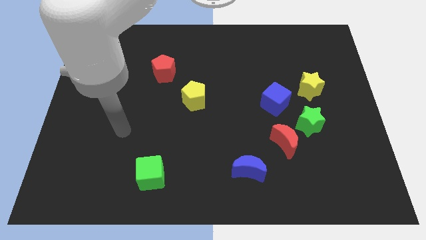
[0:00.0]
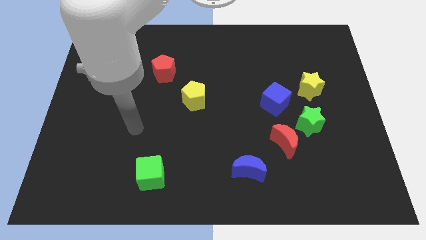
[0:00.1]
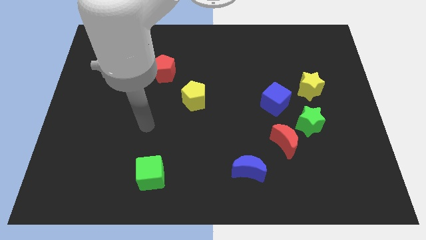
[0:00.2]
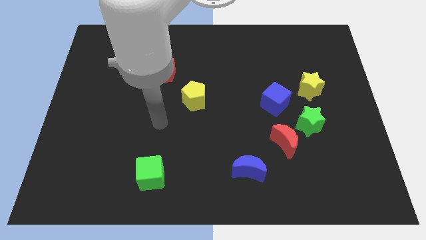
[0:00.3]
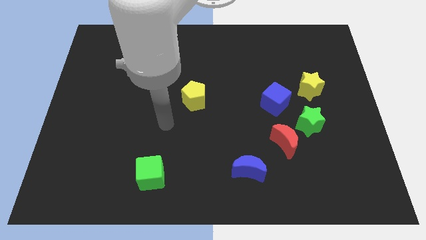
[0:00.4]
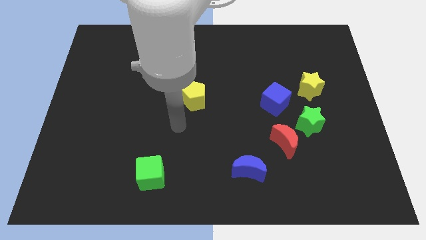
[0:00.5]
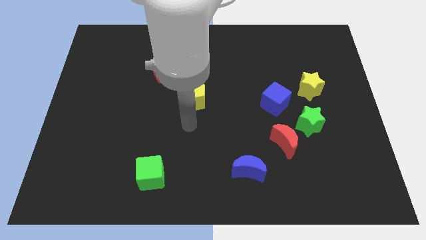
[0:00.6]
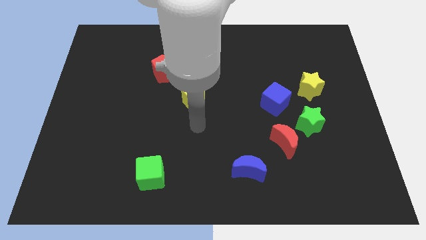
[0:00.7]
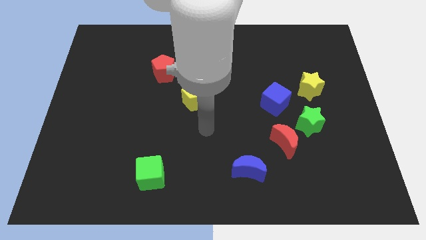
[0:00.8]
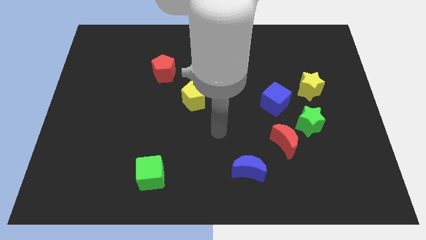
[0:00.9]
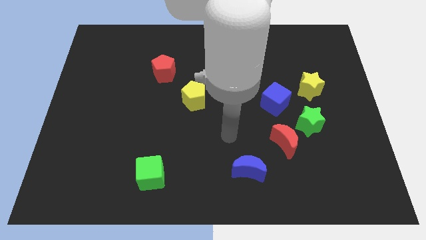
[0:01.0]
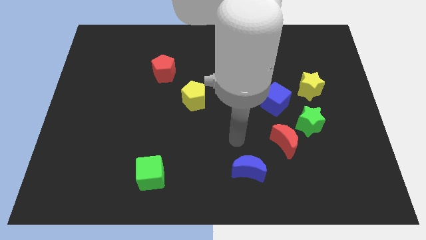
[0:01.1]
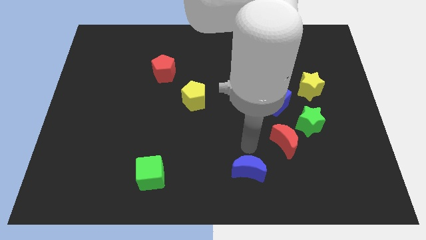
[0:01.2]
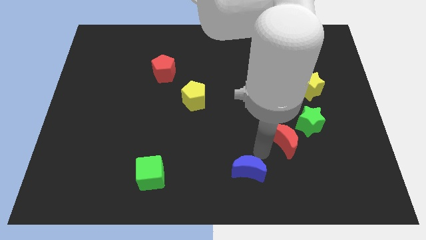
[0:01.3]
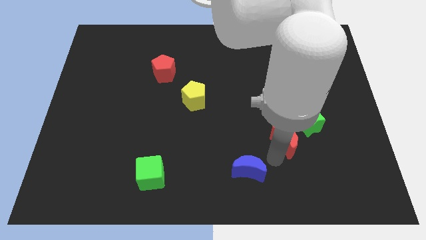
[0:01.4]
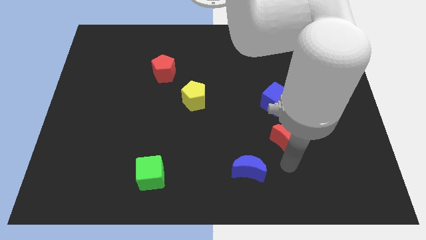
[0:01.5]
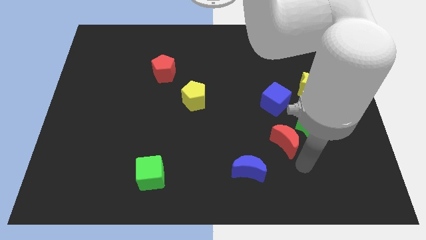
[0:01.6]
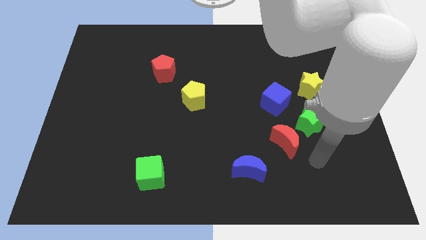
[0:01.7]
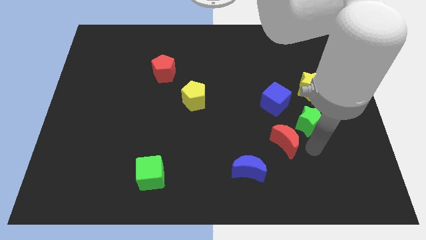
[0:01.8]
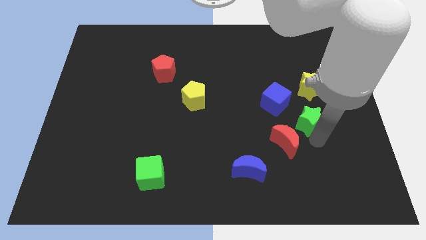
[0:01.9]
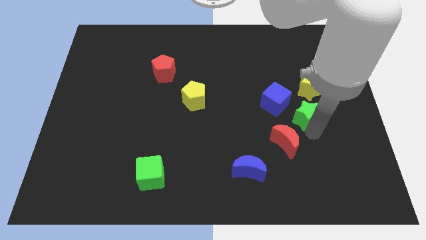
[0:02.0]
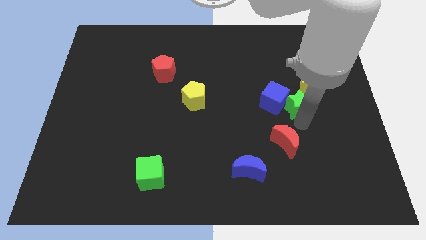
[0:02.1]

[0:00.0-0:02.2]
move the red moon away from the green star

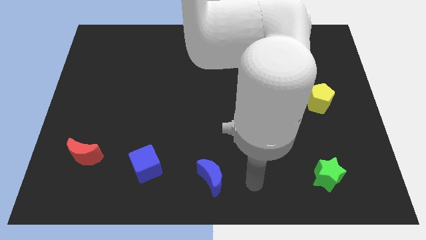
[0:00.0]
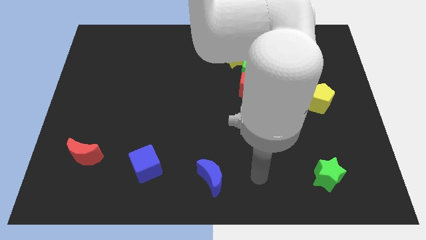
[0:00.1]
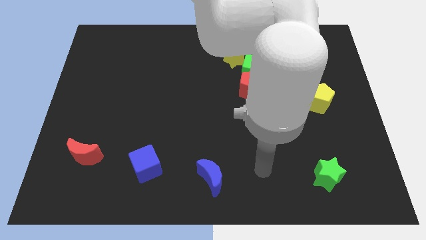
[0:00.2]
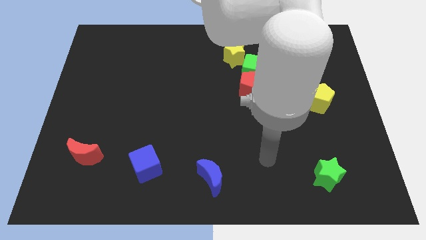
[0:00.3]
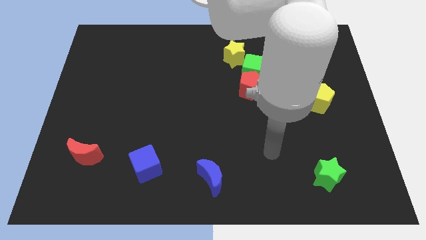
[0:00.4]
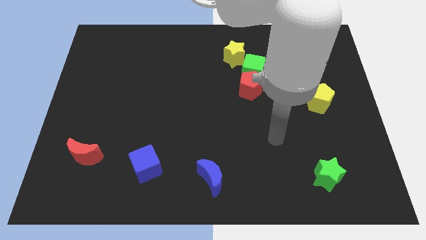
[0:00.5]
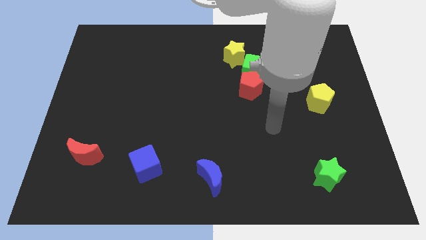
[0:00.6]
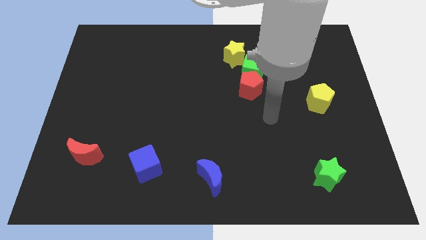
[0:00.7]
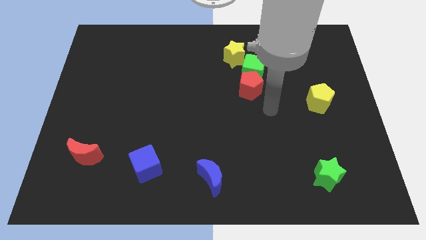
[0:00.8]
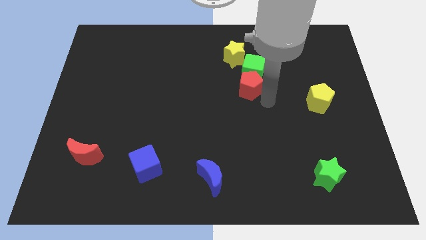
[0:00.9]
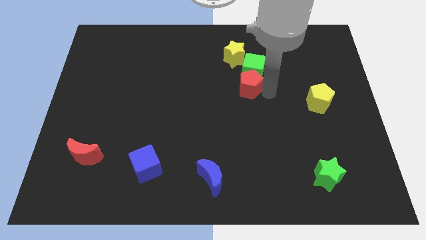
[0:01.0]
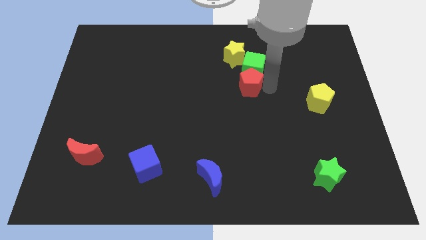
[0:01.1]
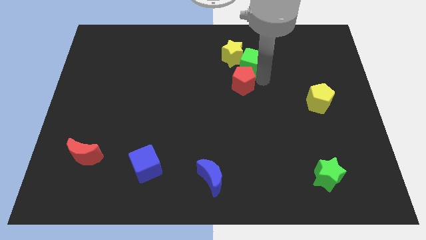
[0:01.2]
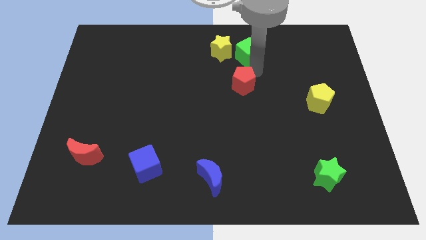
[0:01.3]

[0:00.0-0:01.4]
pull the red pentagon apart from the green cube

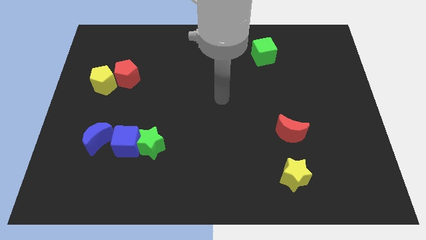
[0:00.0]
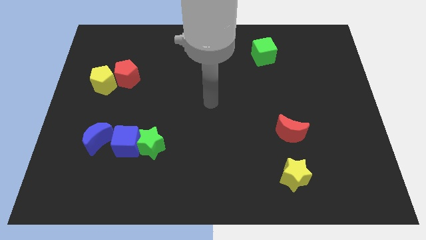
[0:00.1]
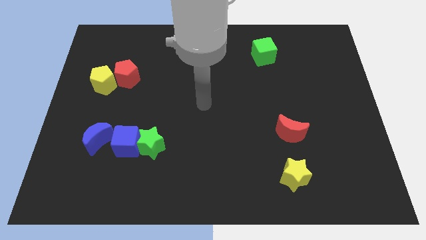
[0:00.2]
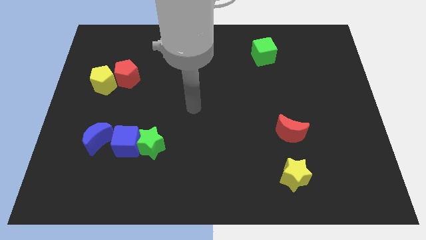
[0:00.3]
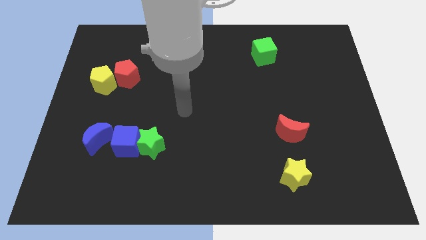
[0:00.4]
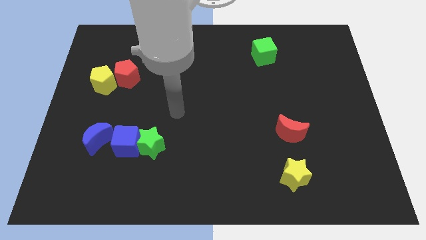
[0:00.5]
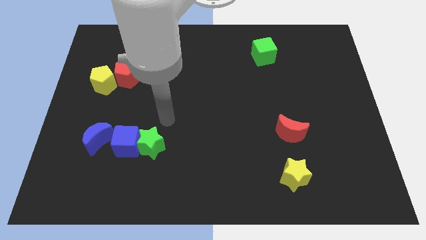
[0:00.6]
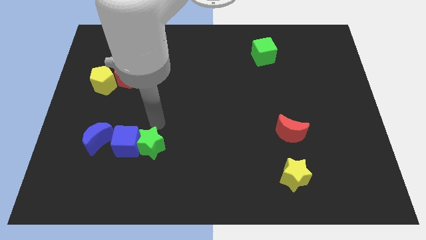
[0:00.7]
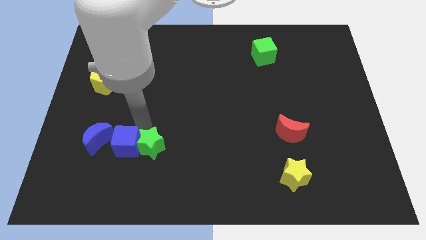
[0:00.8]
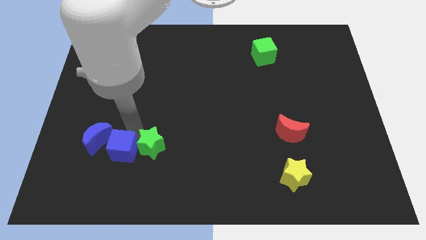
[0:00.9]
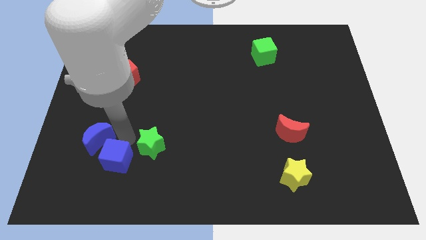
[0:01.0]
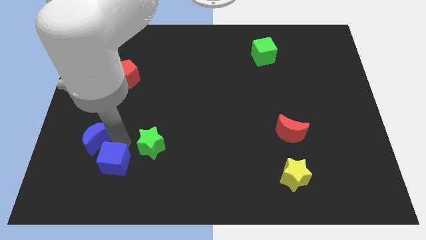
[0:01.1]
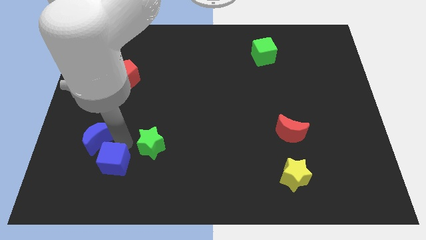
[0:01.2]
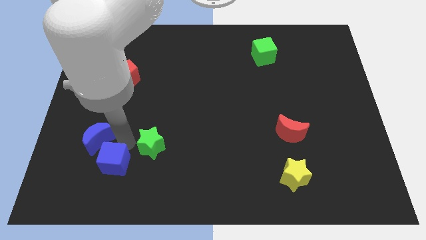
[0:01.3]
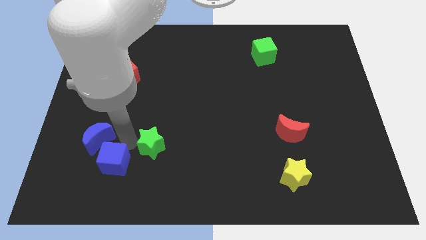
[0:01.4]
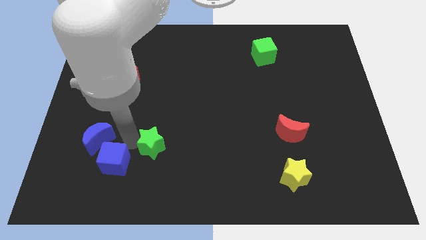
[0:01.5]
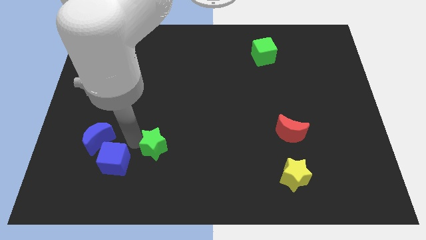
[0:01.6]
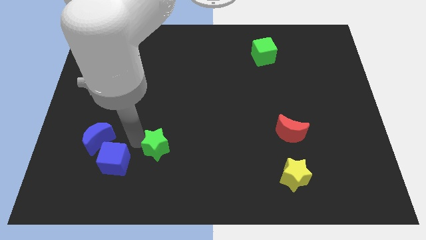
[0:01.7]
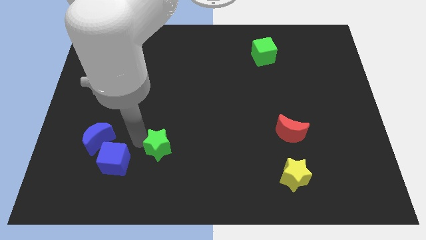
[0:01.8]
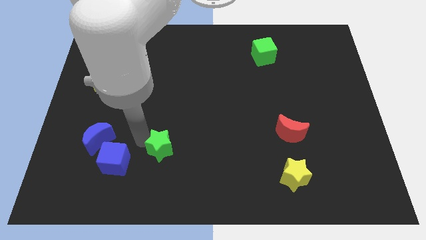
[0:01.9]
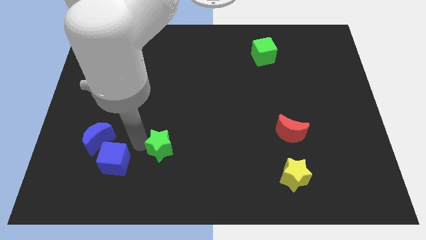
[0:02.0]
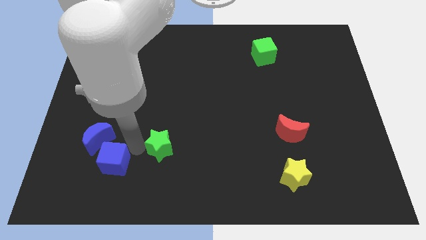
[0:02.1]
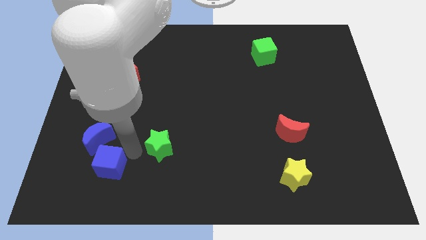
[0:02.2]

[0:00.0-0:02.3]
move the green star away from the blue cube

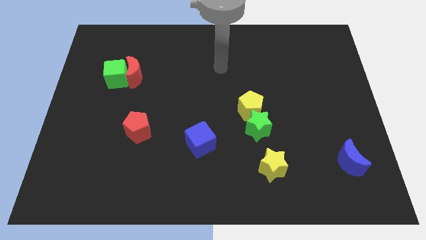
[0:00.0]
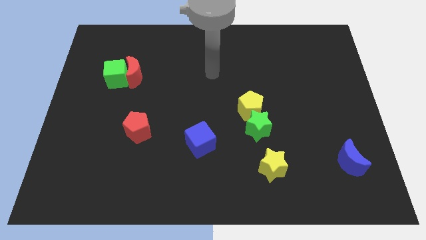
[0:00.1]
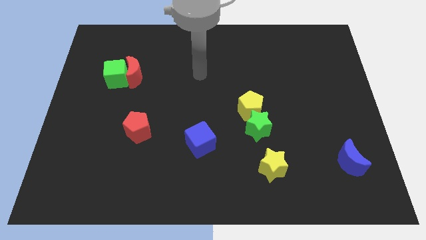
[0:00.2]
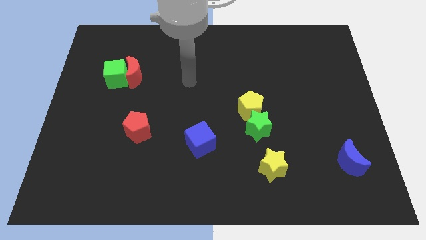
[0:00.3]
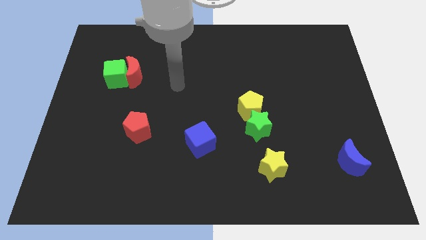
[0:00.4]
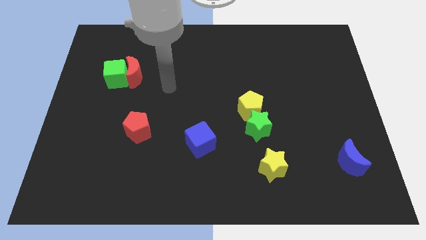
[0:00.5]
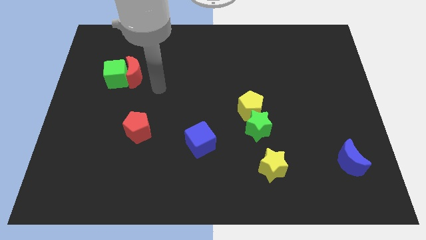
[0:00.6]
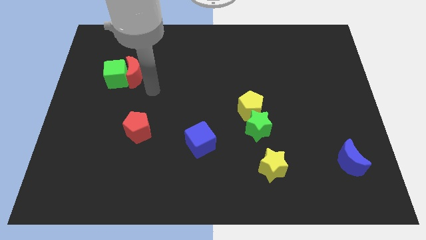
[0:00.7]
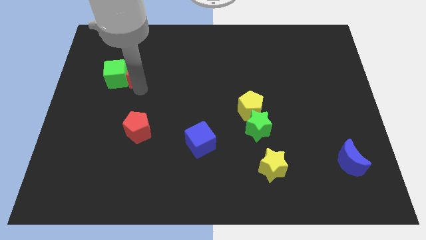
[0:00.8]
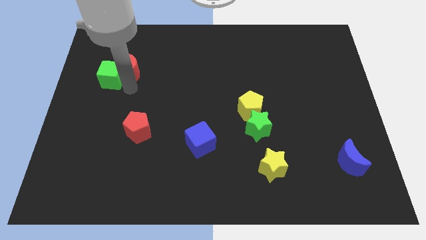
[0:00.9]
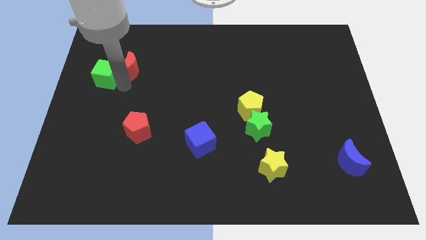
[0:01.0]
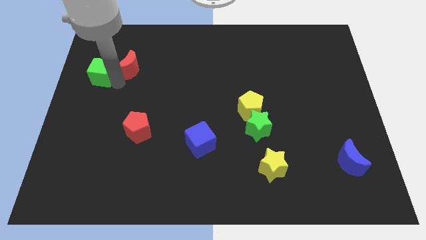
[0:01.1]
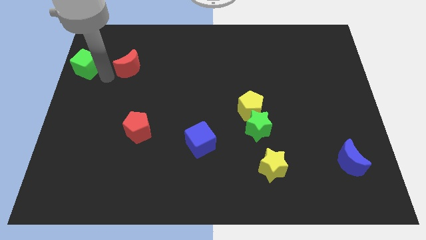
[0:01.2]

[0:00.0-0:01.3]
separate the red moon from the green cube

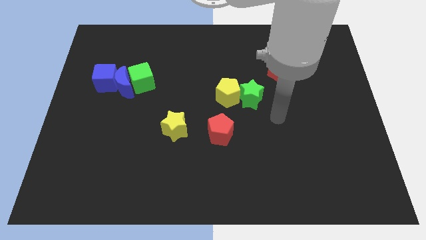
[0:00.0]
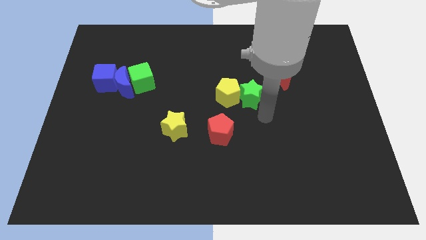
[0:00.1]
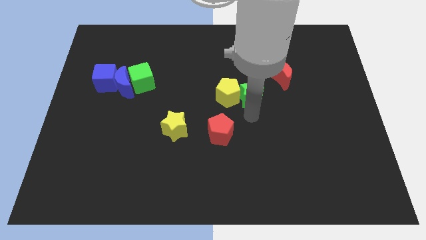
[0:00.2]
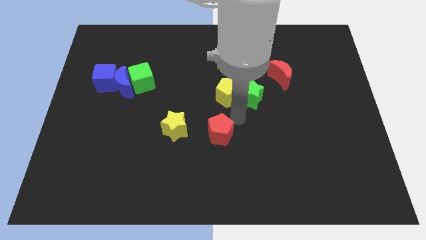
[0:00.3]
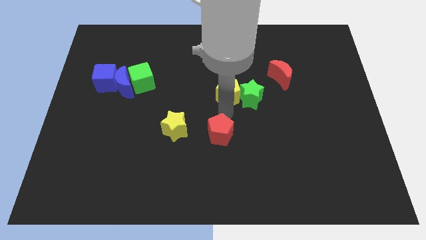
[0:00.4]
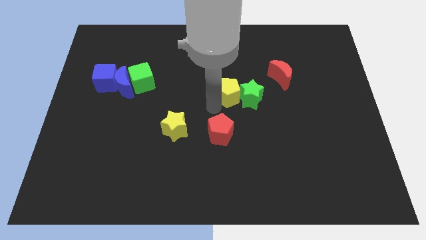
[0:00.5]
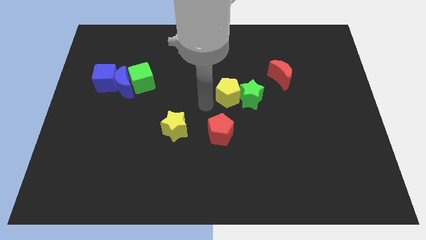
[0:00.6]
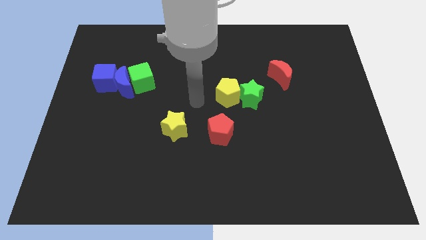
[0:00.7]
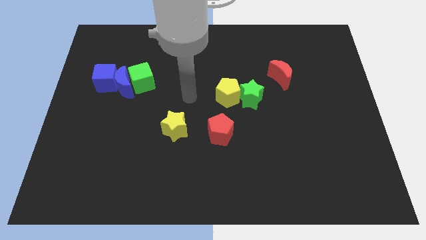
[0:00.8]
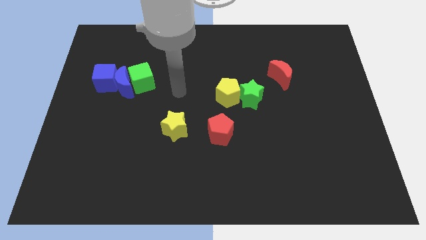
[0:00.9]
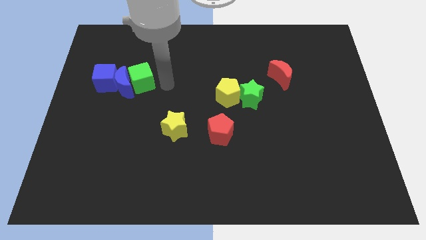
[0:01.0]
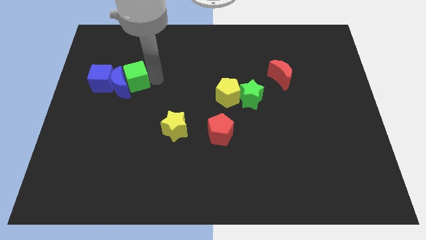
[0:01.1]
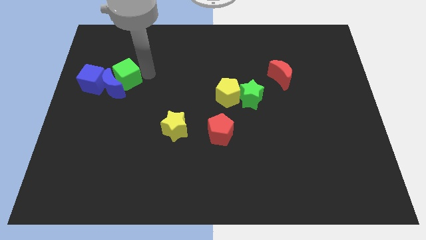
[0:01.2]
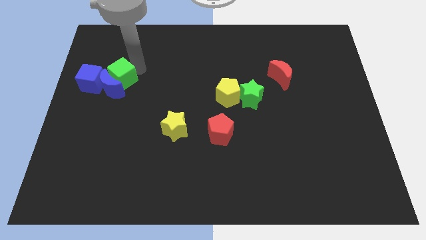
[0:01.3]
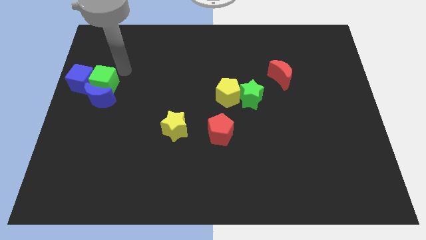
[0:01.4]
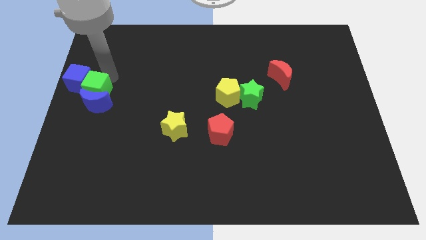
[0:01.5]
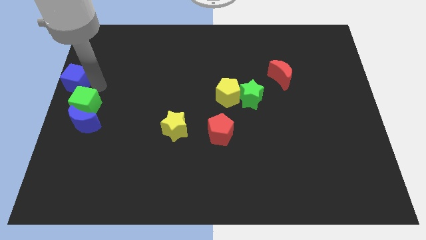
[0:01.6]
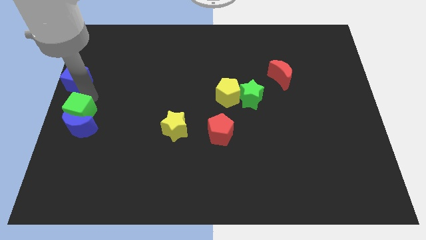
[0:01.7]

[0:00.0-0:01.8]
separate the blue moon from the green cube and blue cube

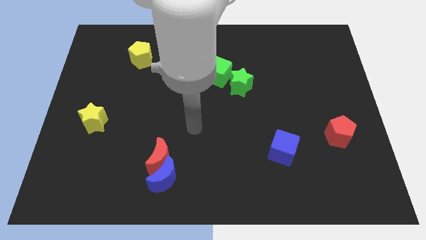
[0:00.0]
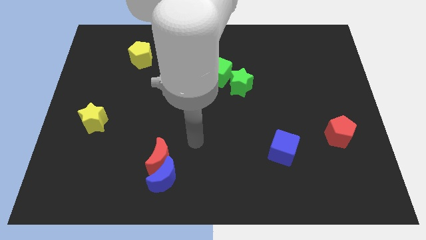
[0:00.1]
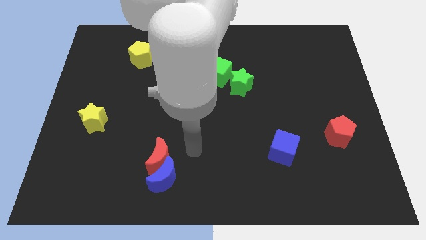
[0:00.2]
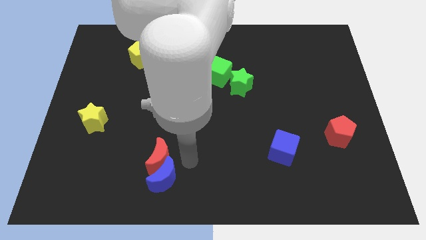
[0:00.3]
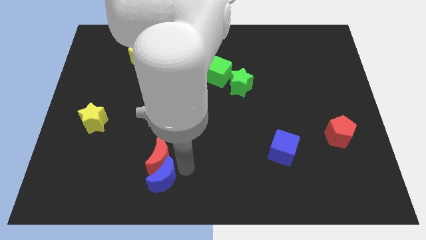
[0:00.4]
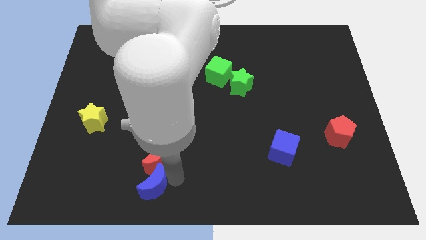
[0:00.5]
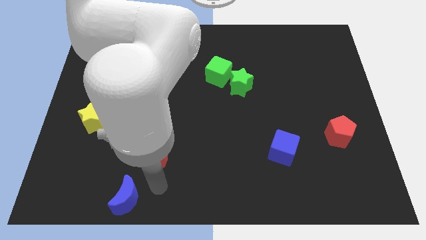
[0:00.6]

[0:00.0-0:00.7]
pull the red moon apart from the blue moon
